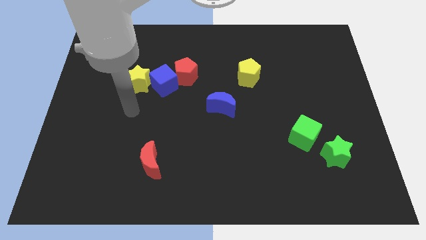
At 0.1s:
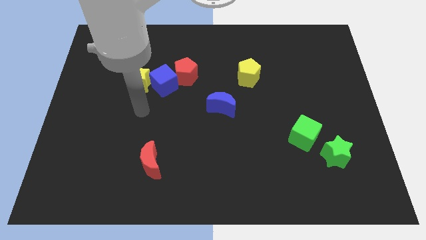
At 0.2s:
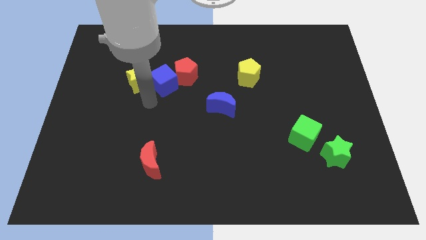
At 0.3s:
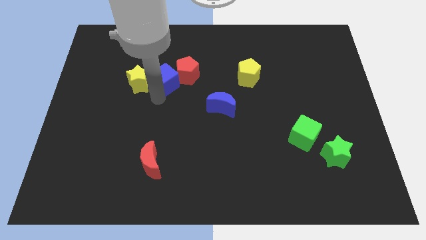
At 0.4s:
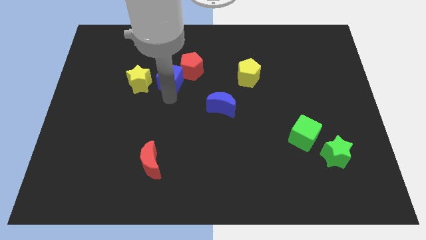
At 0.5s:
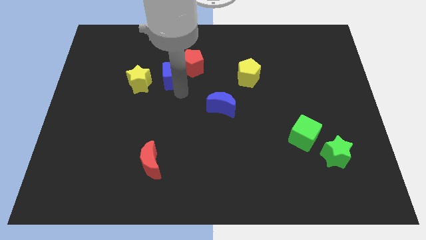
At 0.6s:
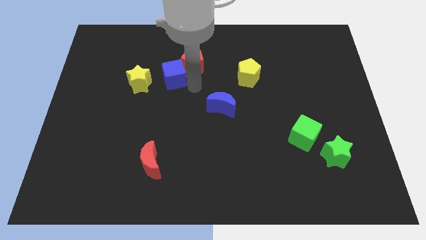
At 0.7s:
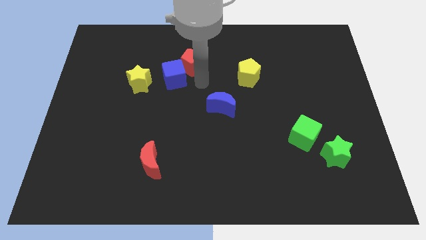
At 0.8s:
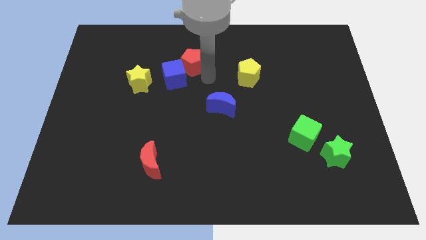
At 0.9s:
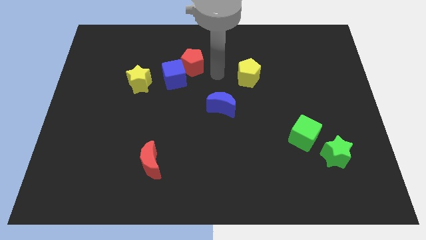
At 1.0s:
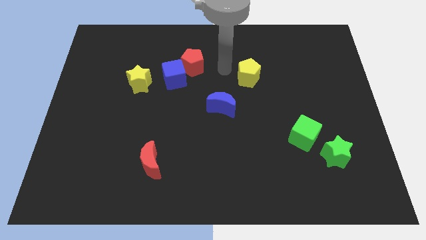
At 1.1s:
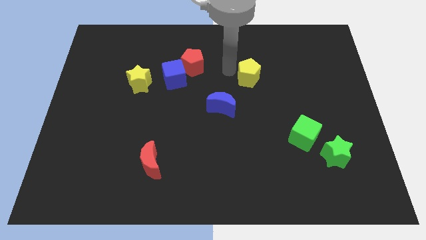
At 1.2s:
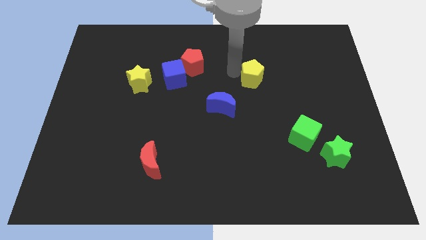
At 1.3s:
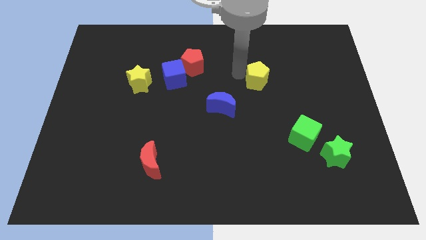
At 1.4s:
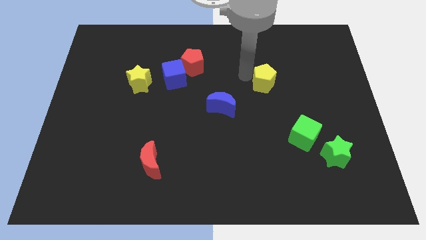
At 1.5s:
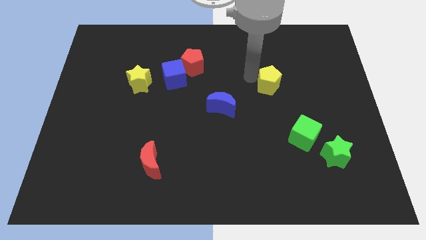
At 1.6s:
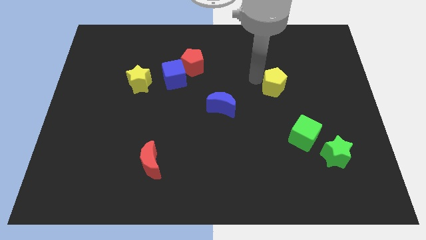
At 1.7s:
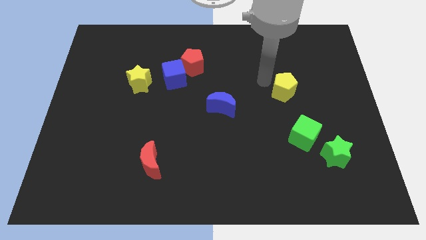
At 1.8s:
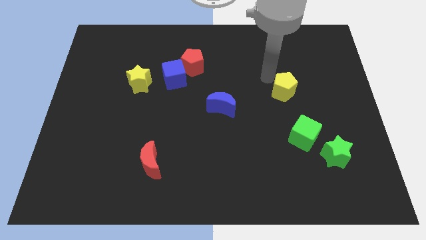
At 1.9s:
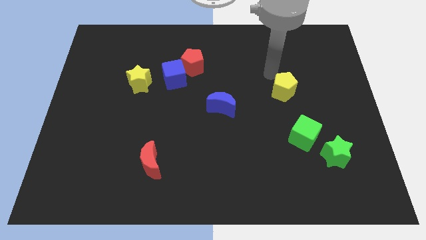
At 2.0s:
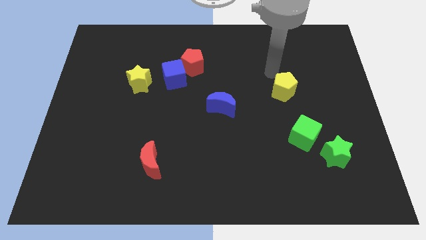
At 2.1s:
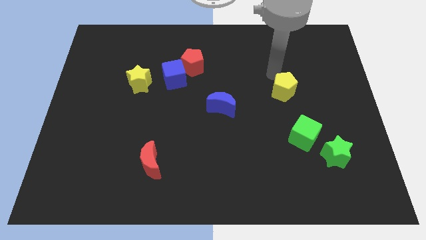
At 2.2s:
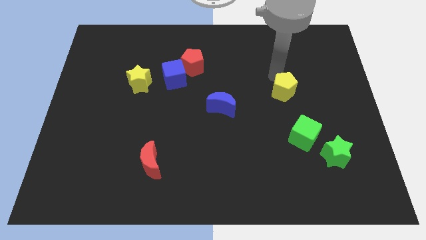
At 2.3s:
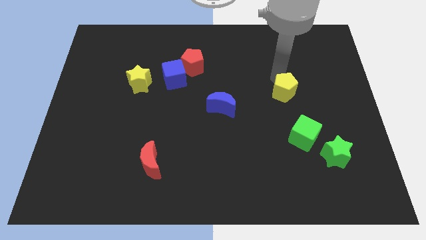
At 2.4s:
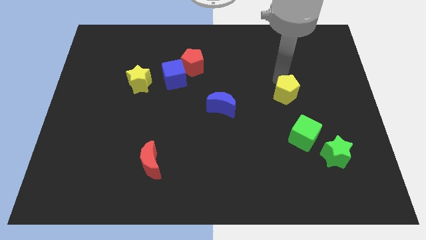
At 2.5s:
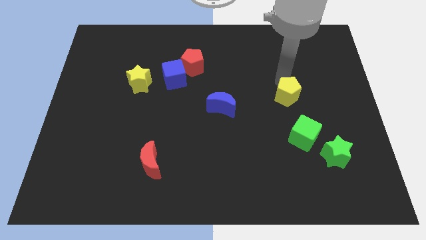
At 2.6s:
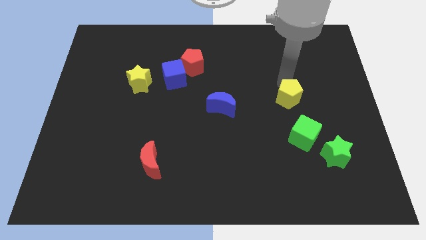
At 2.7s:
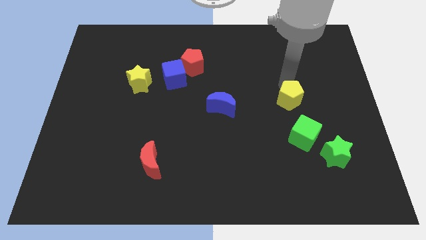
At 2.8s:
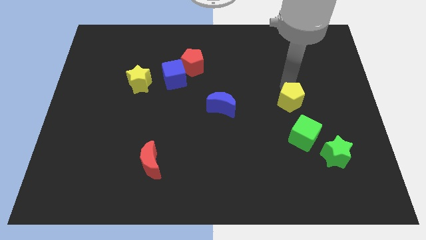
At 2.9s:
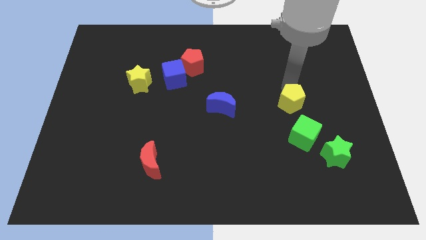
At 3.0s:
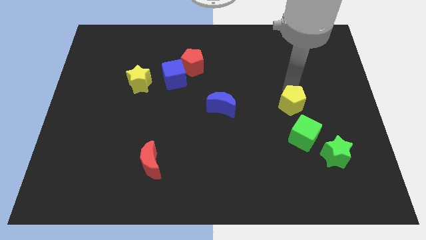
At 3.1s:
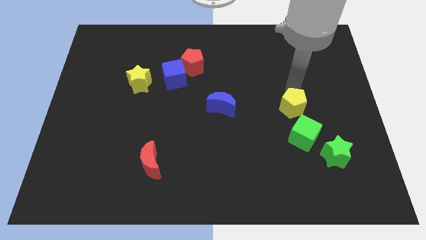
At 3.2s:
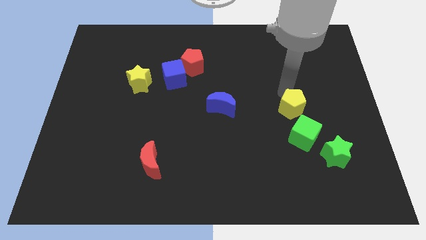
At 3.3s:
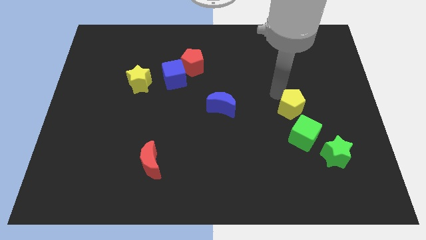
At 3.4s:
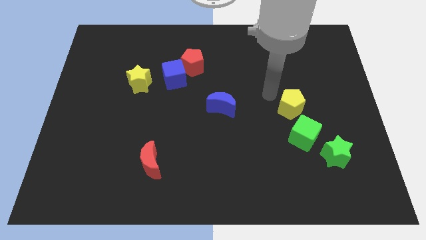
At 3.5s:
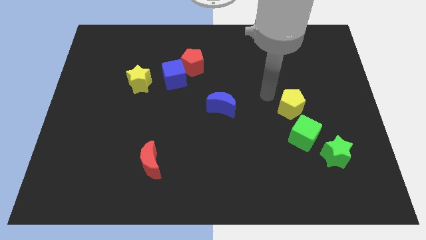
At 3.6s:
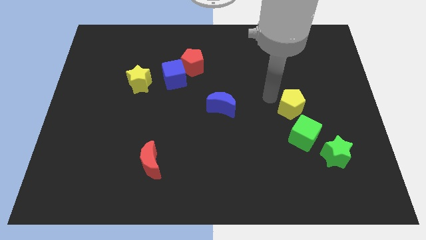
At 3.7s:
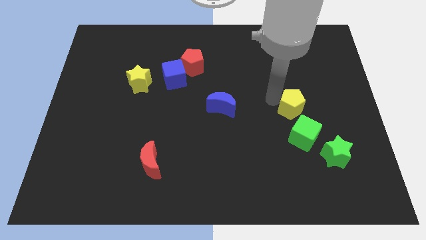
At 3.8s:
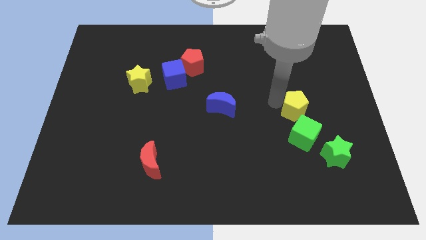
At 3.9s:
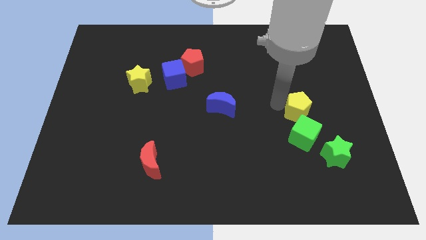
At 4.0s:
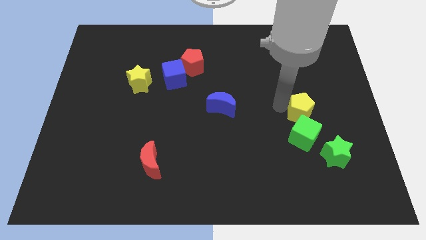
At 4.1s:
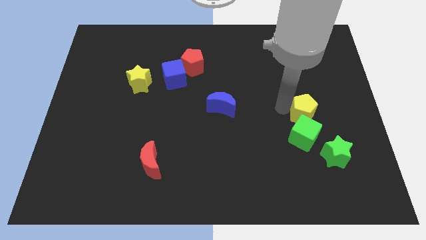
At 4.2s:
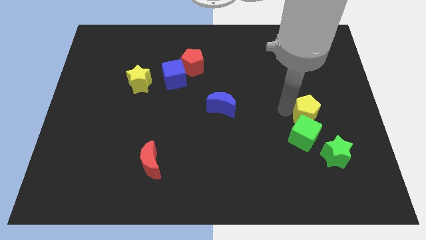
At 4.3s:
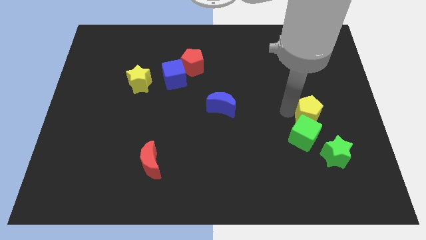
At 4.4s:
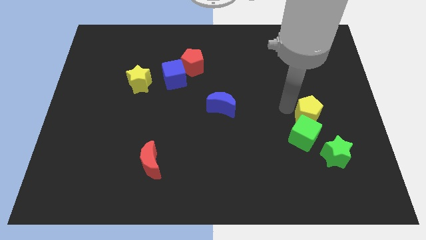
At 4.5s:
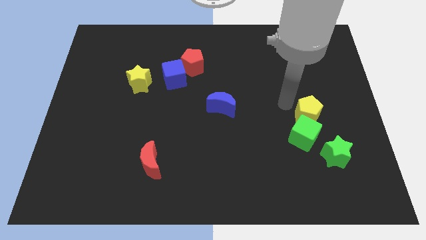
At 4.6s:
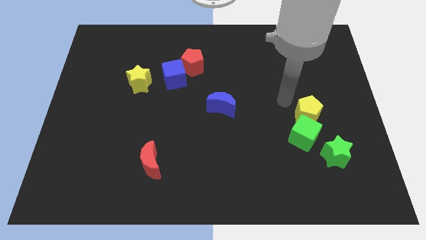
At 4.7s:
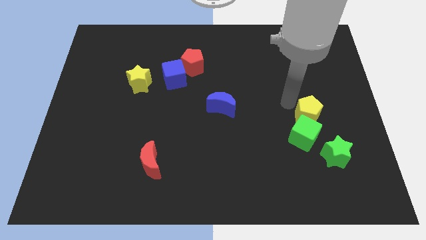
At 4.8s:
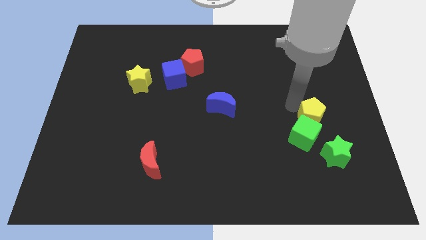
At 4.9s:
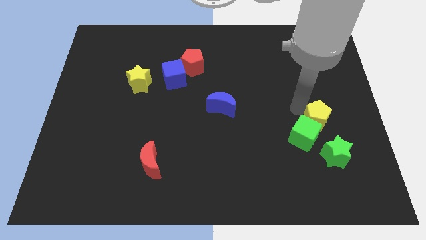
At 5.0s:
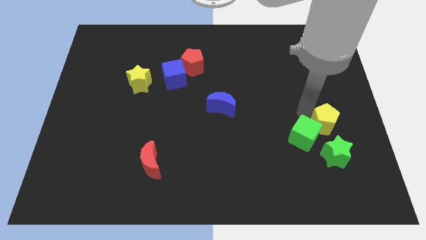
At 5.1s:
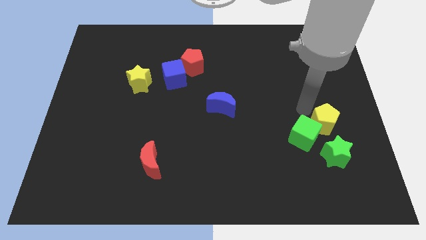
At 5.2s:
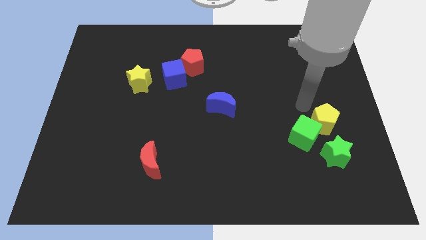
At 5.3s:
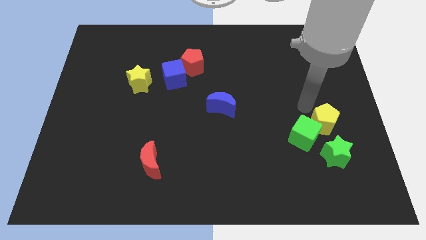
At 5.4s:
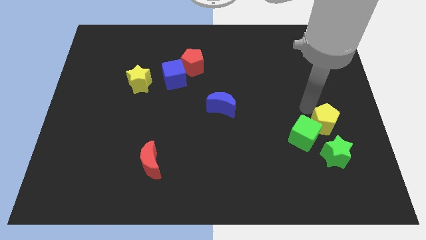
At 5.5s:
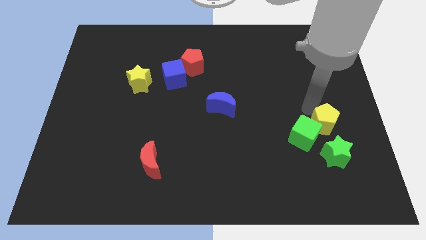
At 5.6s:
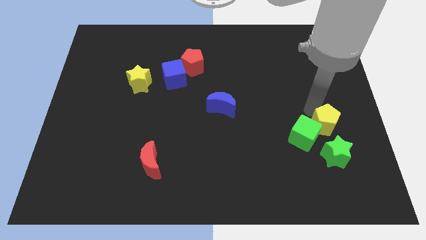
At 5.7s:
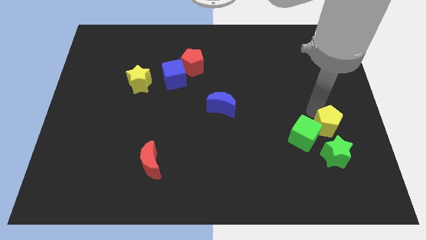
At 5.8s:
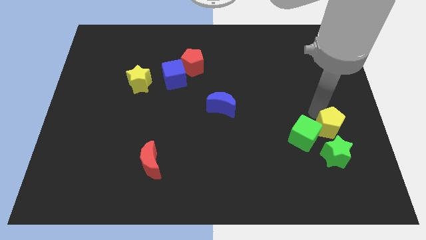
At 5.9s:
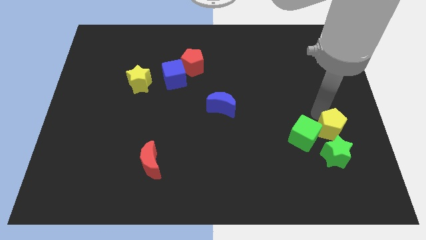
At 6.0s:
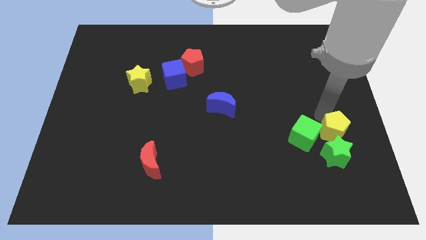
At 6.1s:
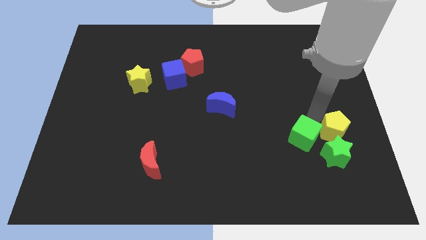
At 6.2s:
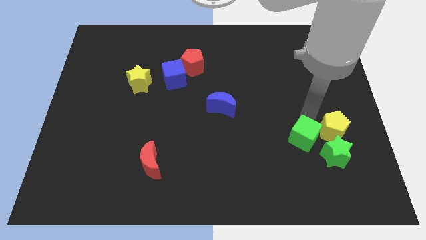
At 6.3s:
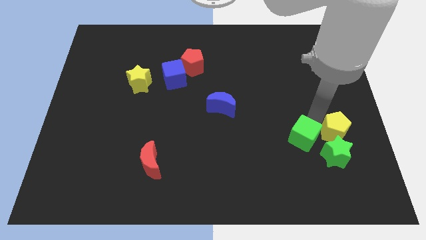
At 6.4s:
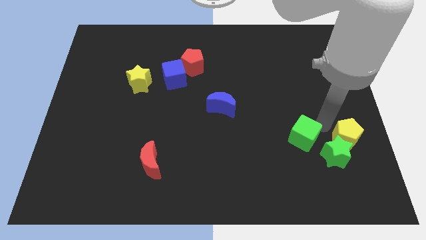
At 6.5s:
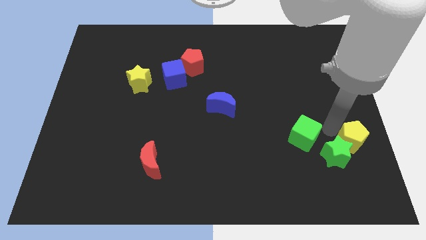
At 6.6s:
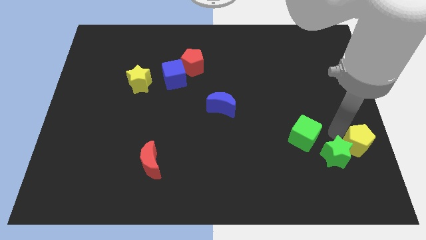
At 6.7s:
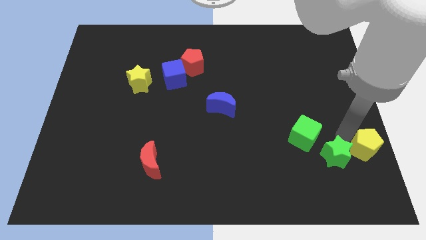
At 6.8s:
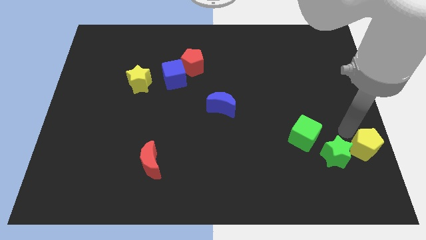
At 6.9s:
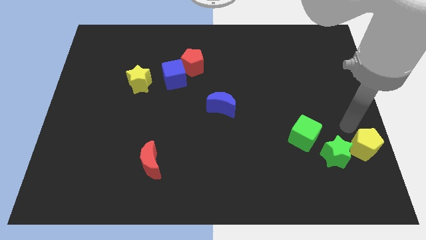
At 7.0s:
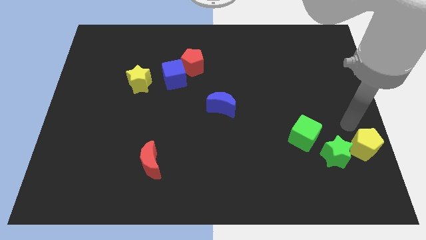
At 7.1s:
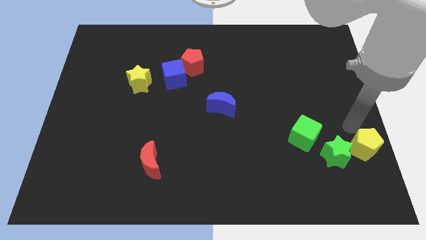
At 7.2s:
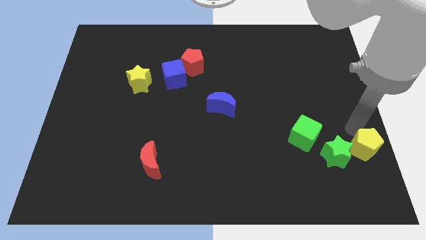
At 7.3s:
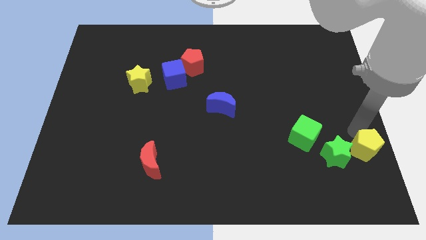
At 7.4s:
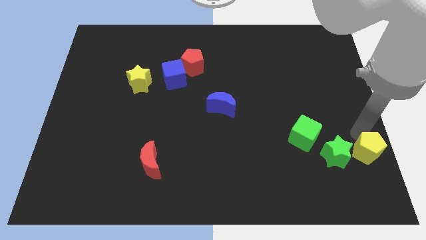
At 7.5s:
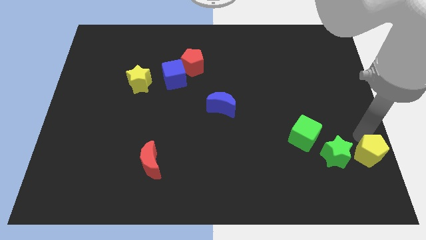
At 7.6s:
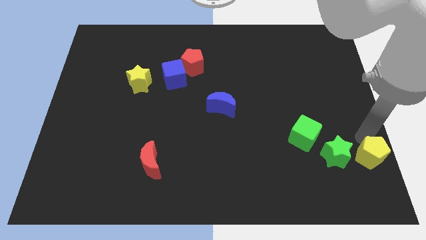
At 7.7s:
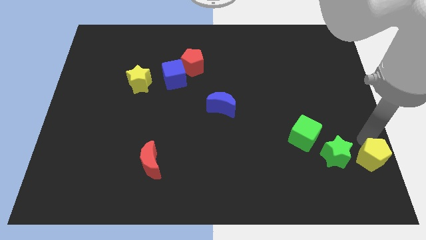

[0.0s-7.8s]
put the yellow pentagon to the bottom right
